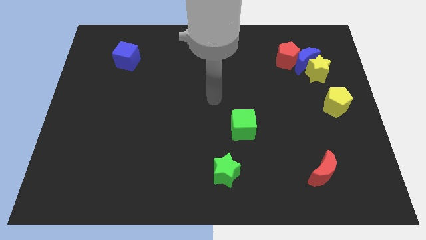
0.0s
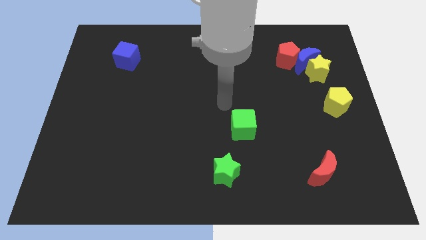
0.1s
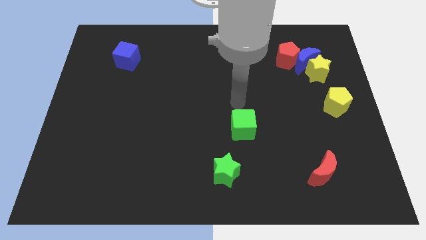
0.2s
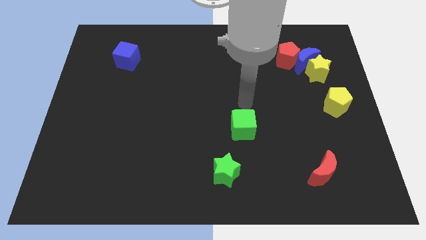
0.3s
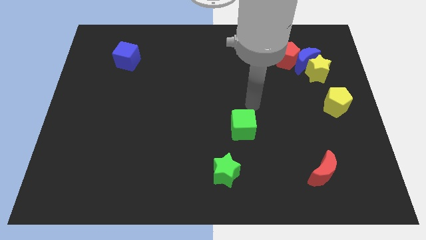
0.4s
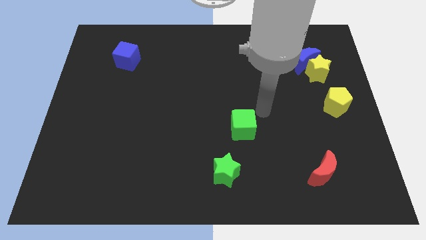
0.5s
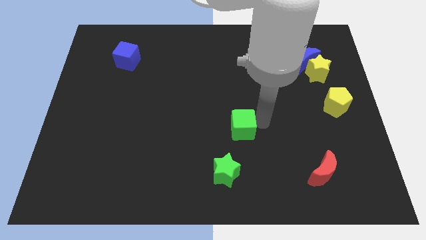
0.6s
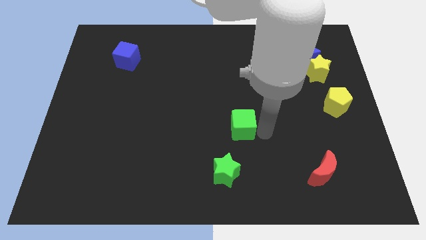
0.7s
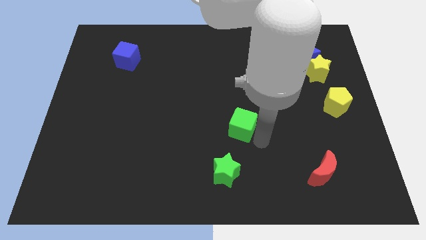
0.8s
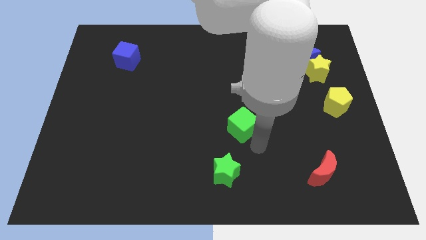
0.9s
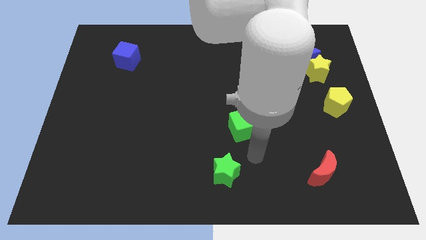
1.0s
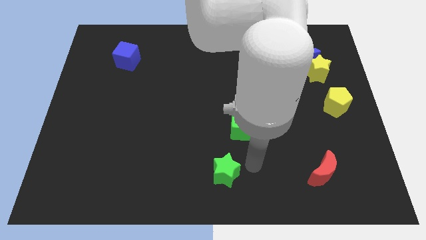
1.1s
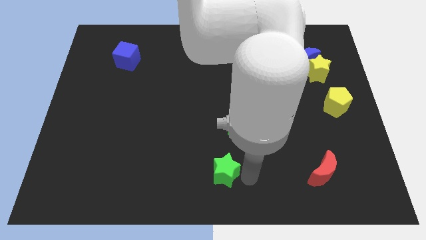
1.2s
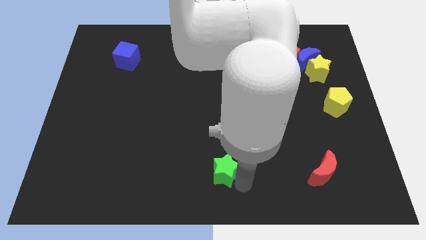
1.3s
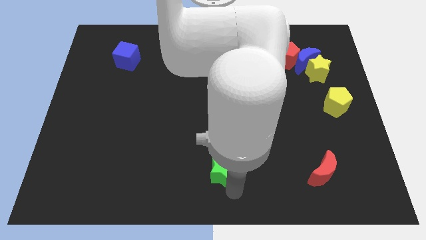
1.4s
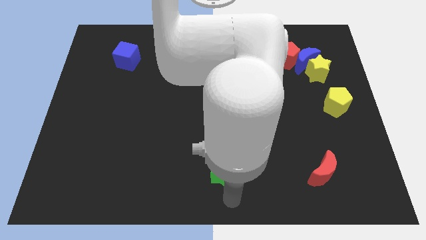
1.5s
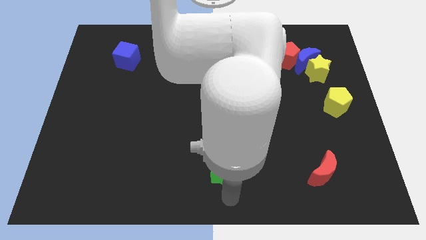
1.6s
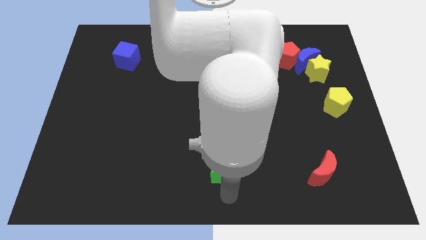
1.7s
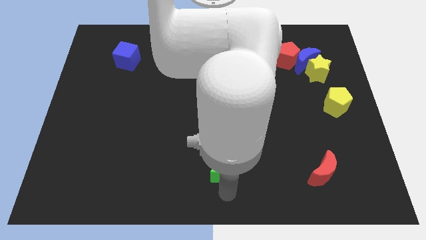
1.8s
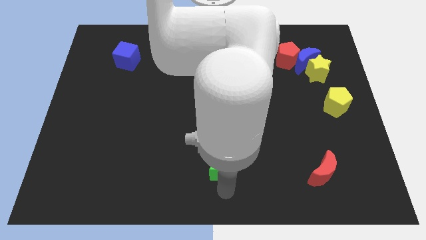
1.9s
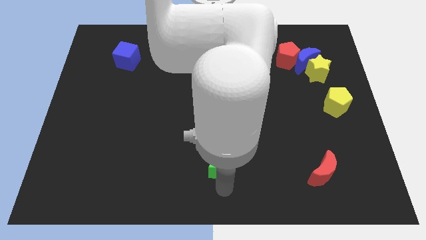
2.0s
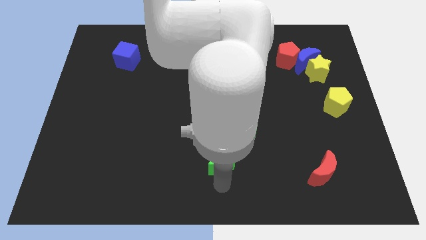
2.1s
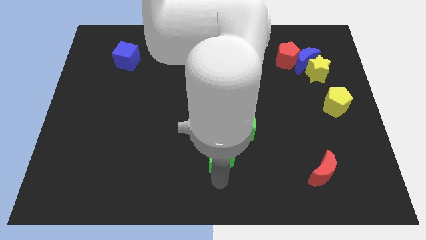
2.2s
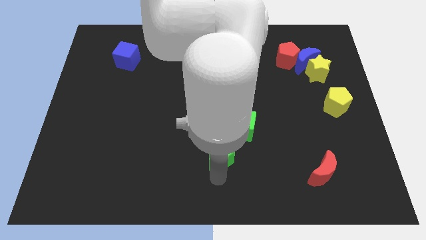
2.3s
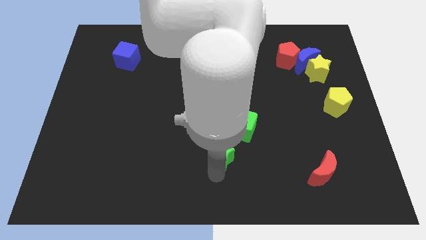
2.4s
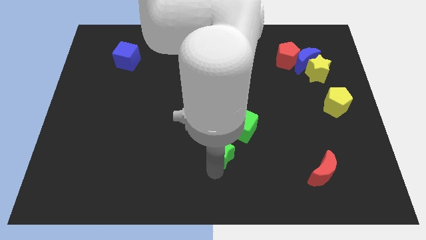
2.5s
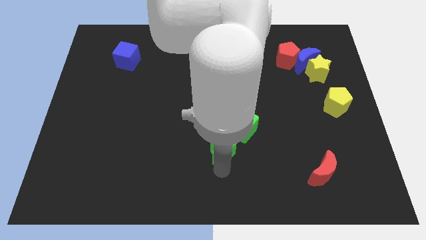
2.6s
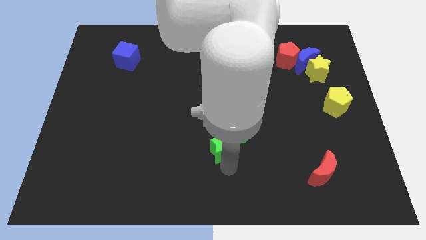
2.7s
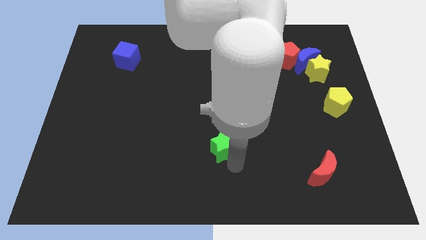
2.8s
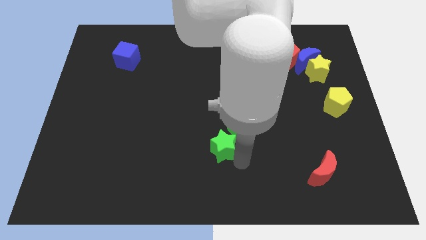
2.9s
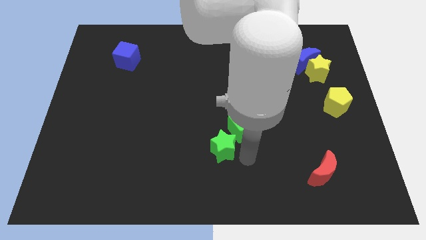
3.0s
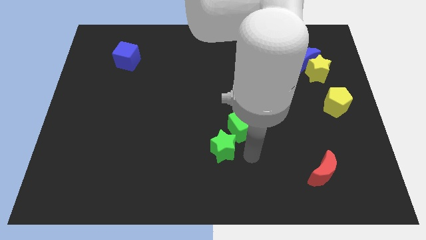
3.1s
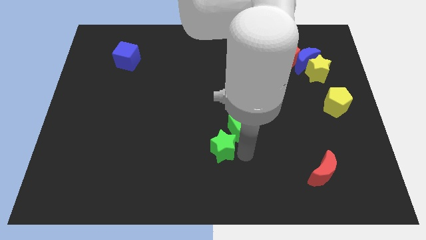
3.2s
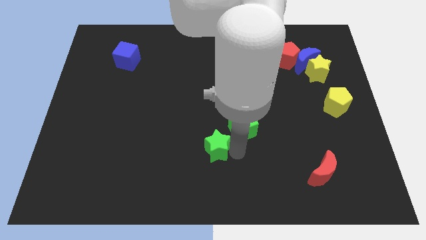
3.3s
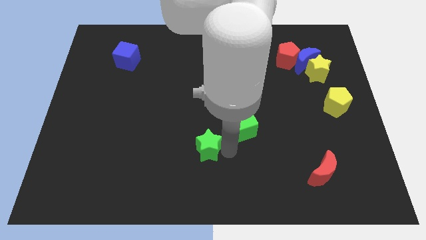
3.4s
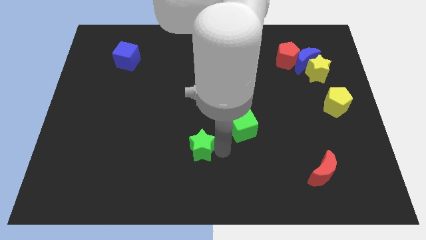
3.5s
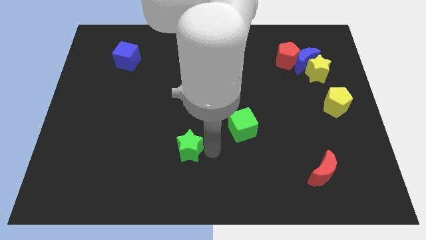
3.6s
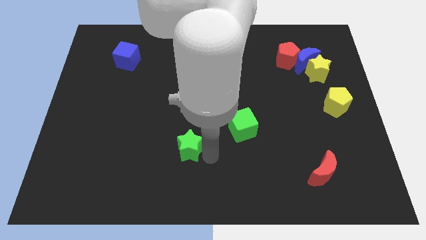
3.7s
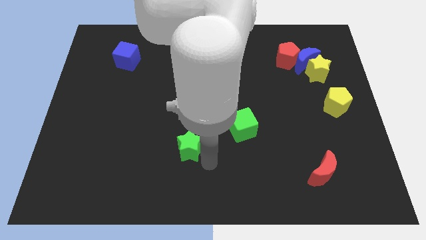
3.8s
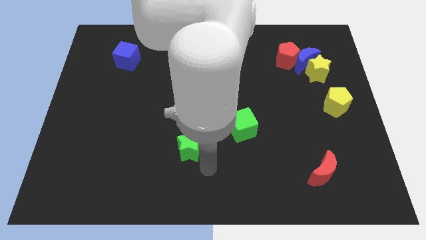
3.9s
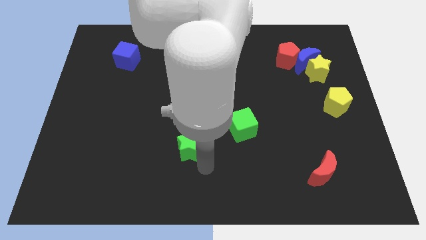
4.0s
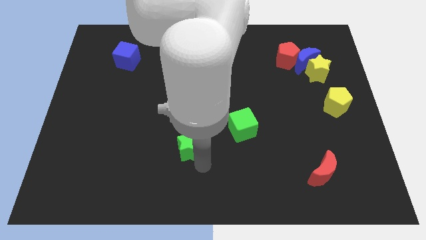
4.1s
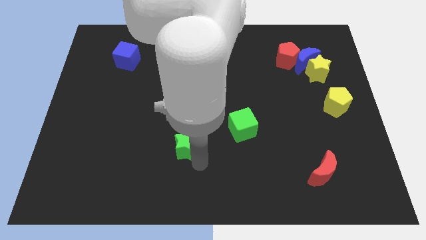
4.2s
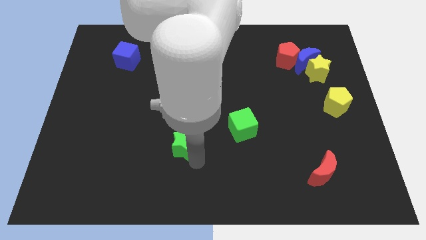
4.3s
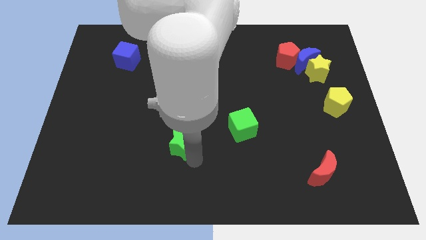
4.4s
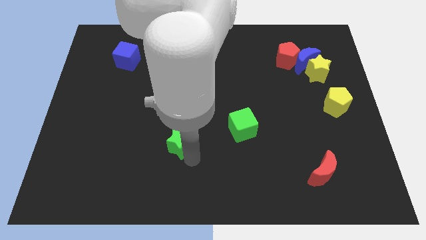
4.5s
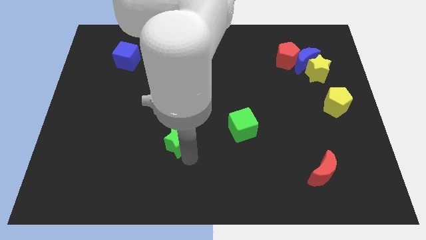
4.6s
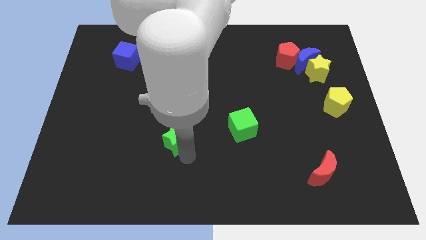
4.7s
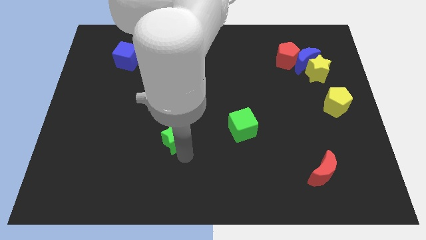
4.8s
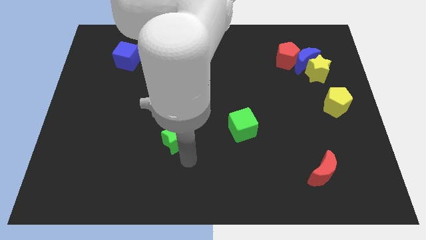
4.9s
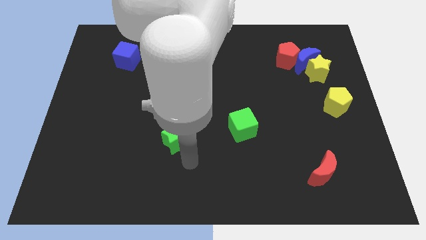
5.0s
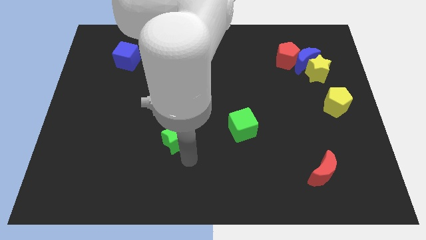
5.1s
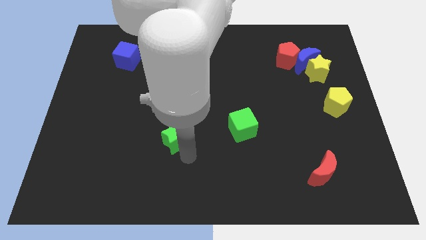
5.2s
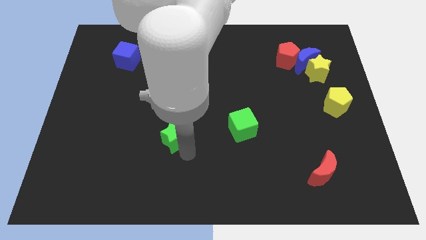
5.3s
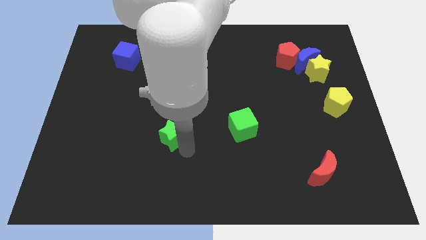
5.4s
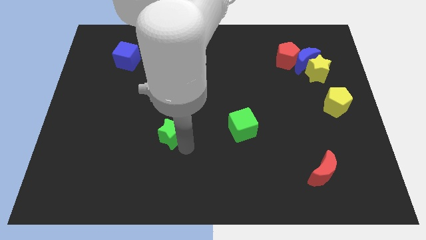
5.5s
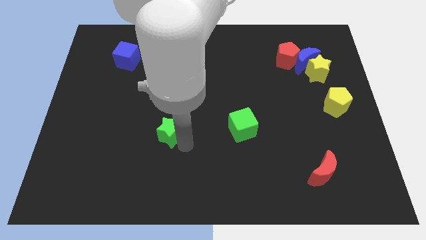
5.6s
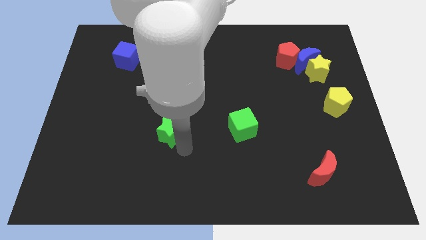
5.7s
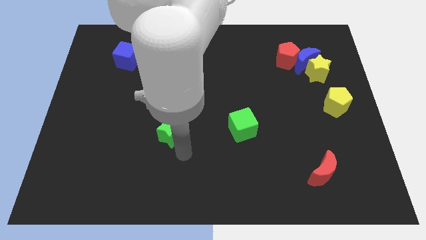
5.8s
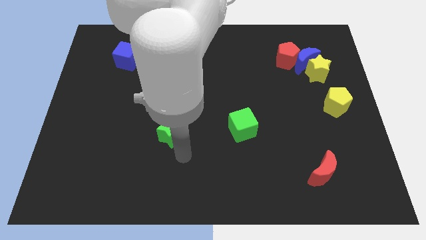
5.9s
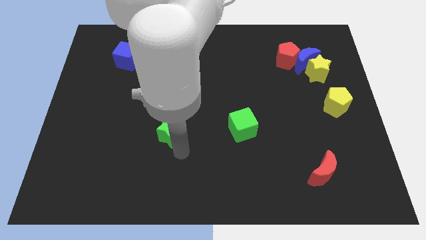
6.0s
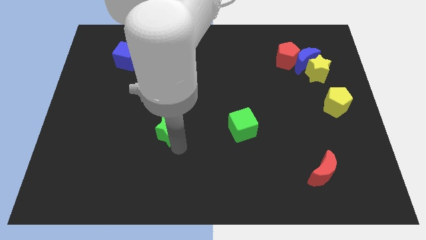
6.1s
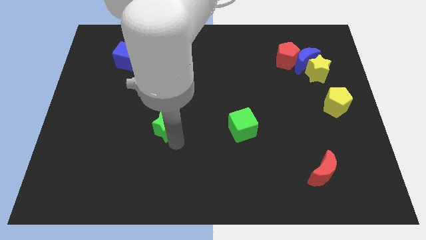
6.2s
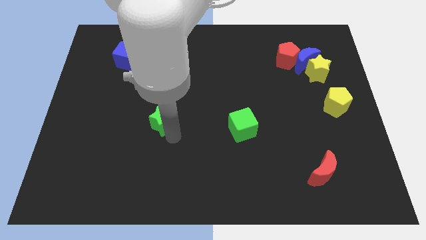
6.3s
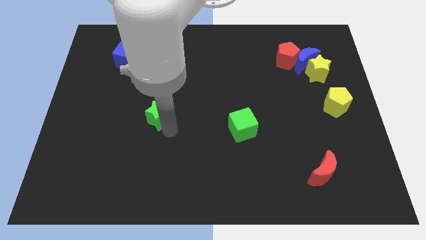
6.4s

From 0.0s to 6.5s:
move the green star diagonally up and left

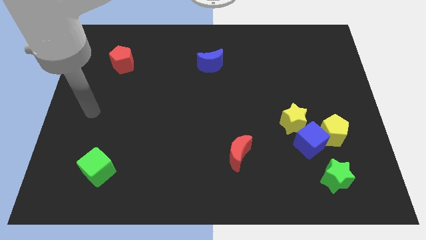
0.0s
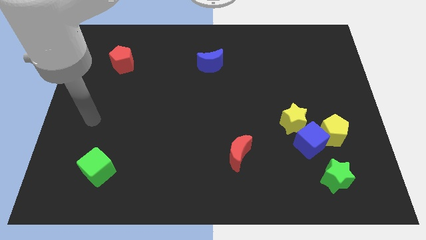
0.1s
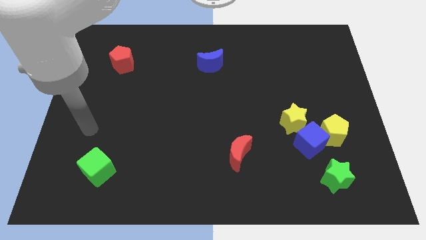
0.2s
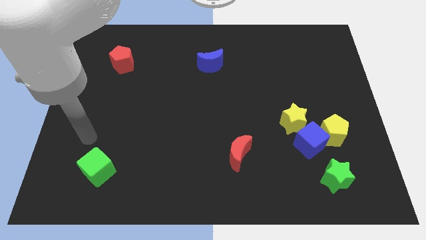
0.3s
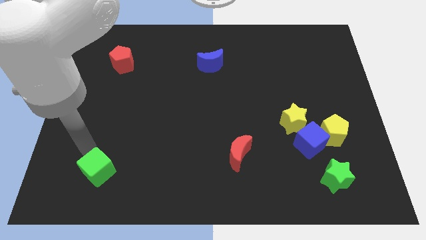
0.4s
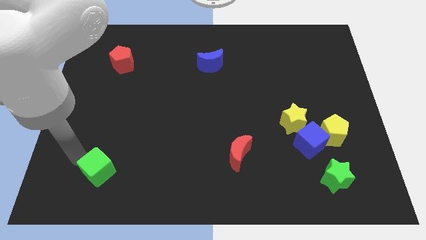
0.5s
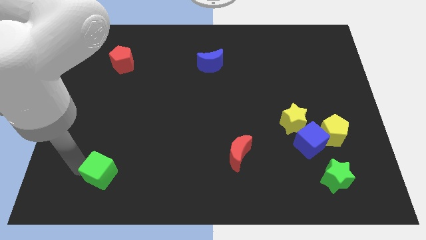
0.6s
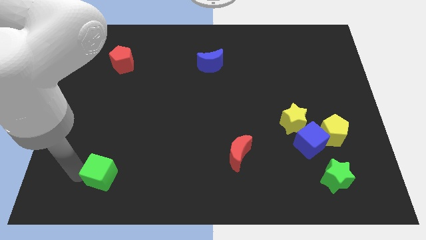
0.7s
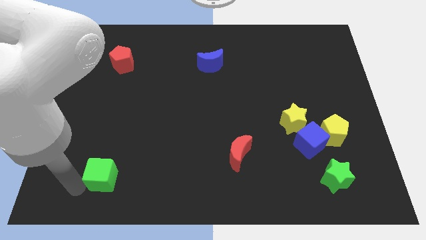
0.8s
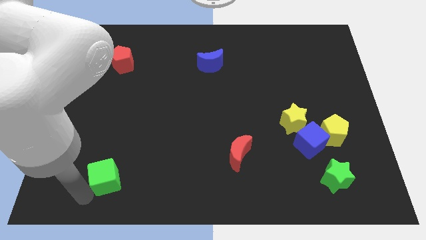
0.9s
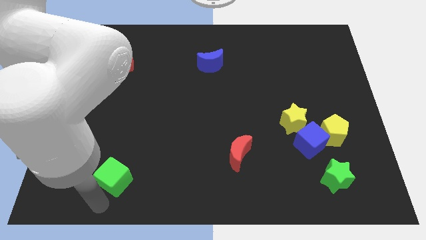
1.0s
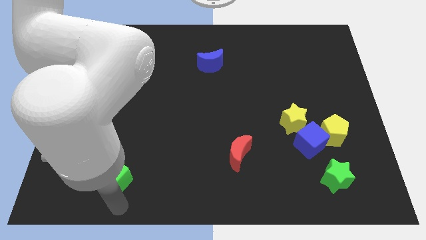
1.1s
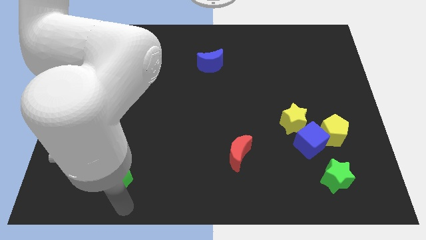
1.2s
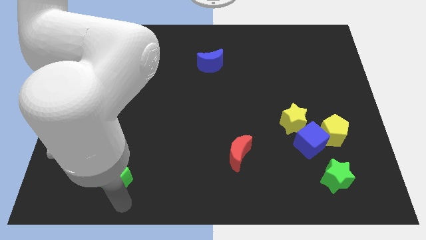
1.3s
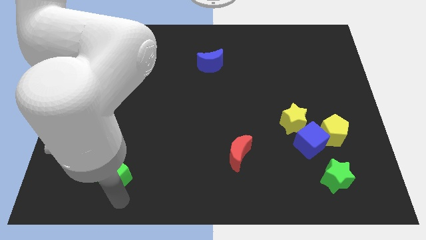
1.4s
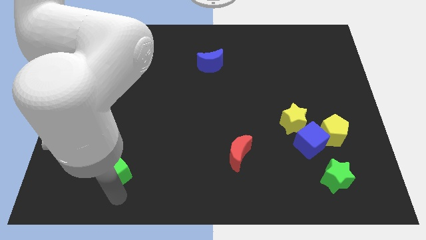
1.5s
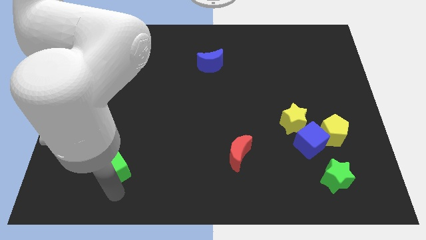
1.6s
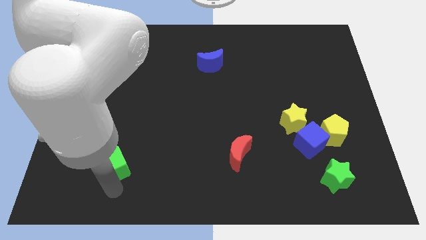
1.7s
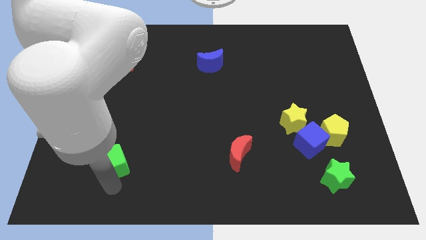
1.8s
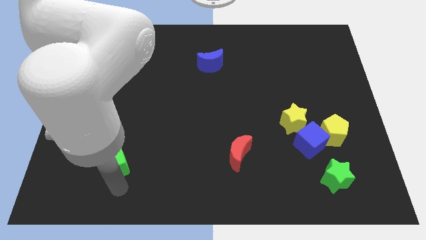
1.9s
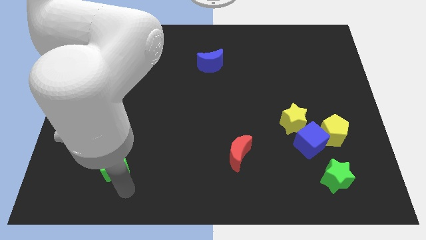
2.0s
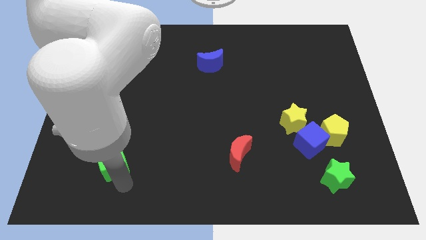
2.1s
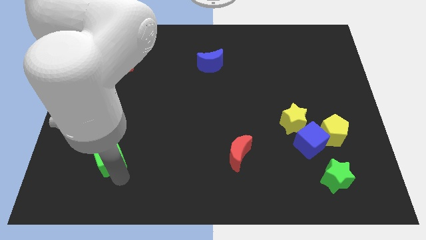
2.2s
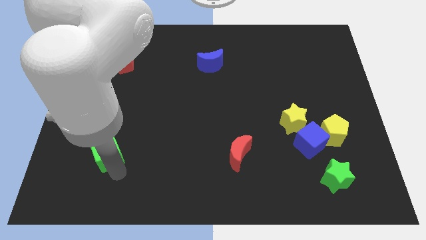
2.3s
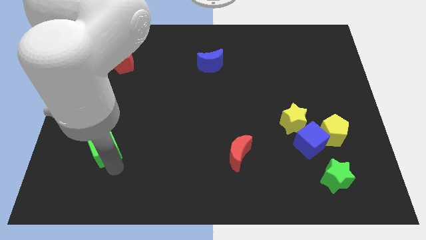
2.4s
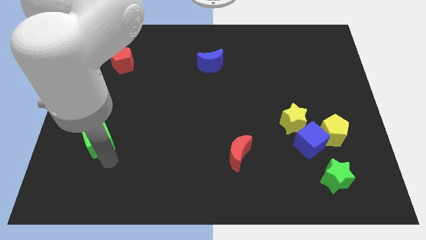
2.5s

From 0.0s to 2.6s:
push the green cube upwards a little bit
